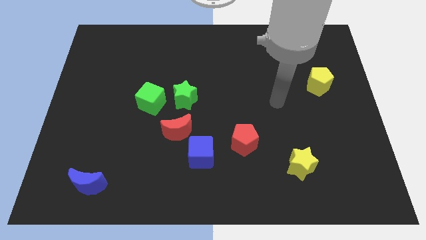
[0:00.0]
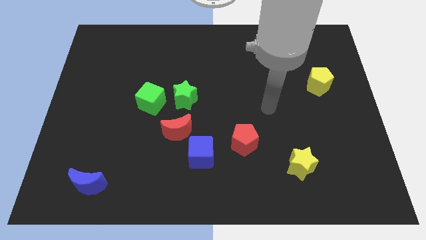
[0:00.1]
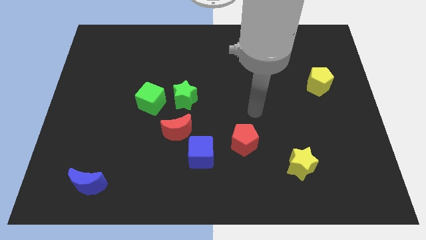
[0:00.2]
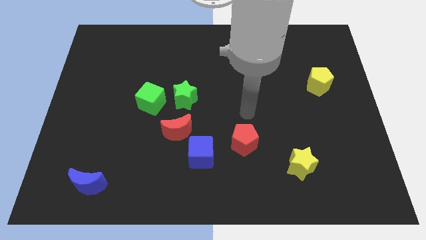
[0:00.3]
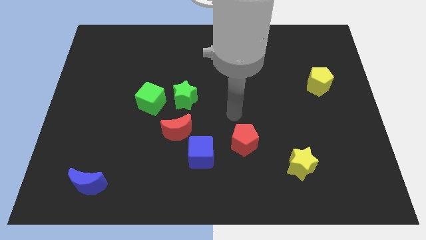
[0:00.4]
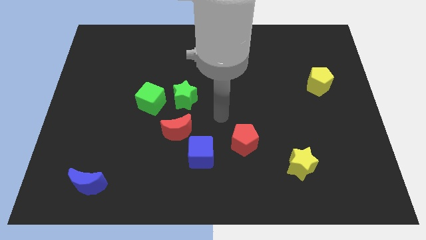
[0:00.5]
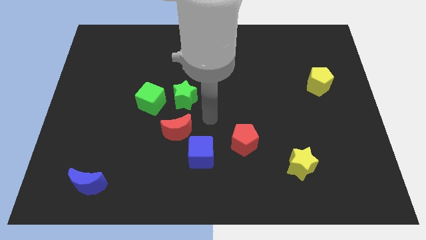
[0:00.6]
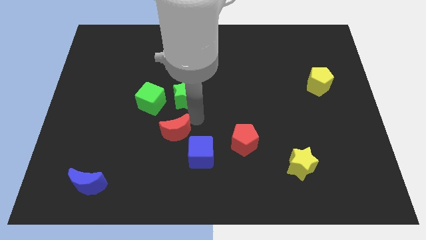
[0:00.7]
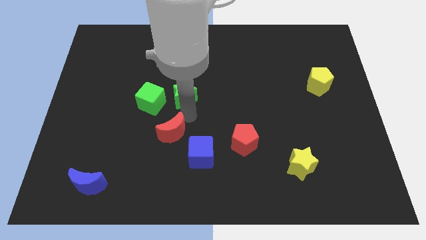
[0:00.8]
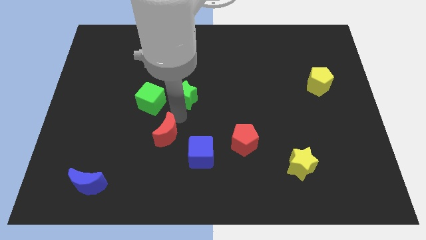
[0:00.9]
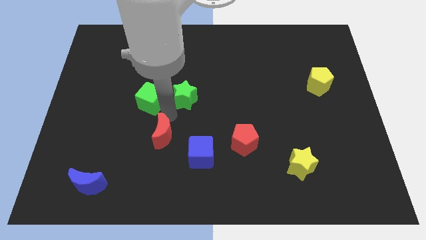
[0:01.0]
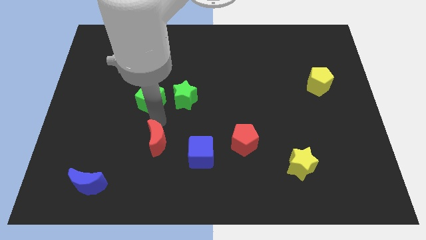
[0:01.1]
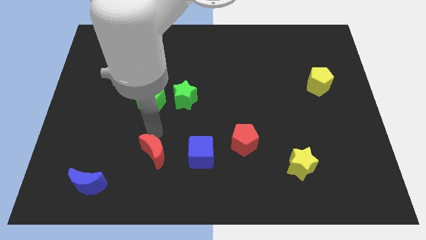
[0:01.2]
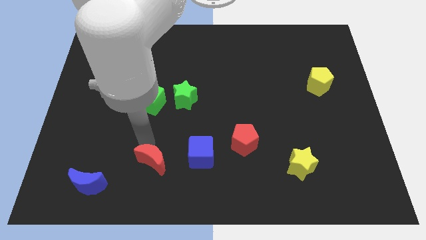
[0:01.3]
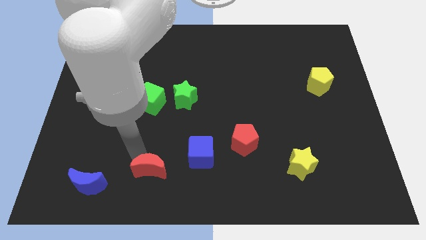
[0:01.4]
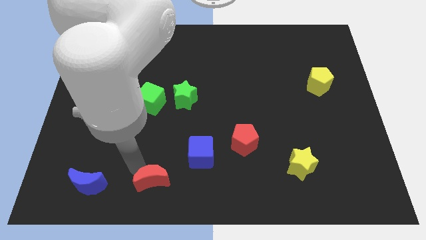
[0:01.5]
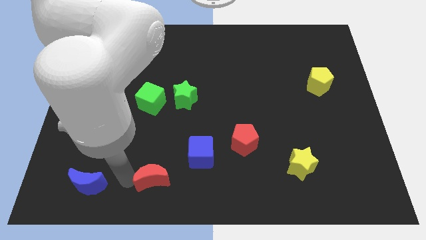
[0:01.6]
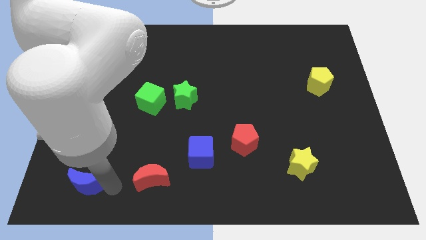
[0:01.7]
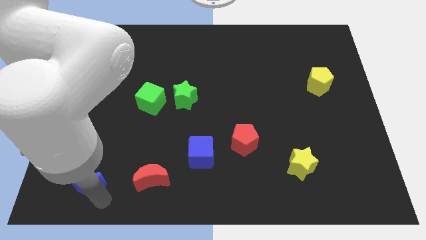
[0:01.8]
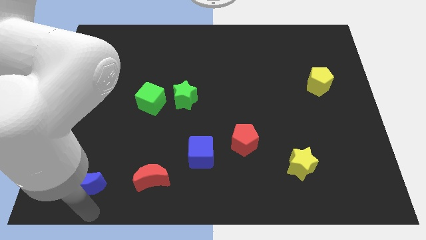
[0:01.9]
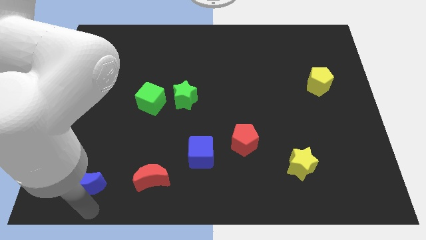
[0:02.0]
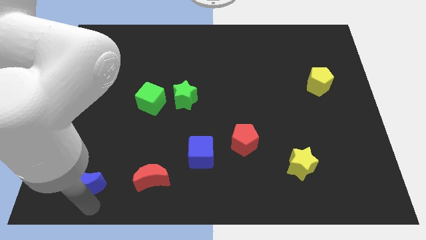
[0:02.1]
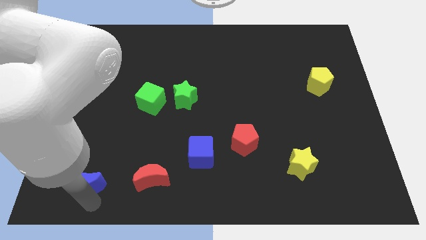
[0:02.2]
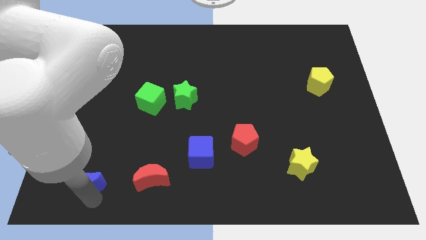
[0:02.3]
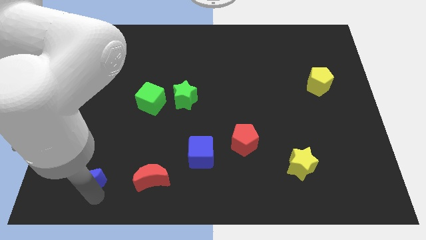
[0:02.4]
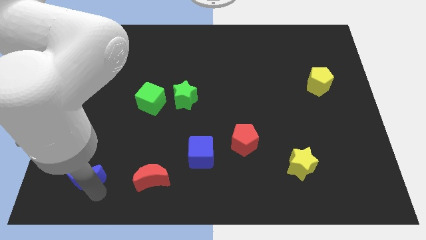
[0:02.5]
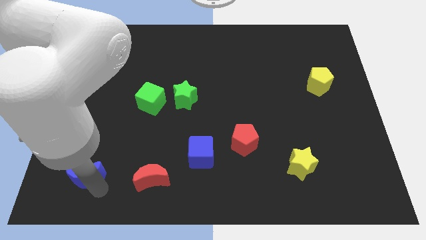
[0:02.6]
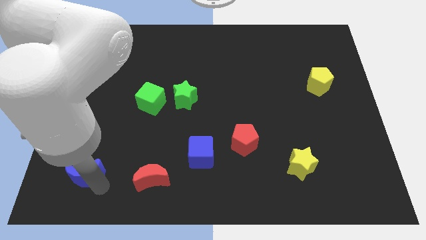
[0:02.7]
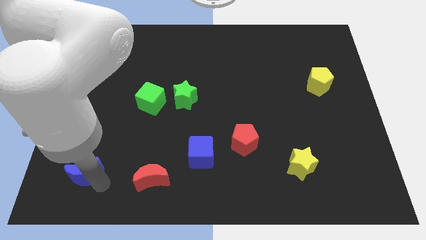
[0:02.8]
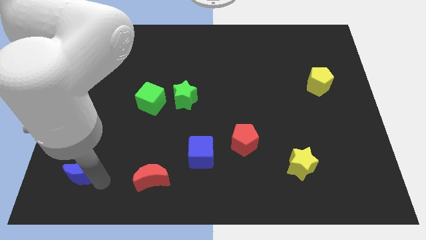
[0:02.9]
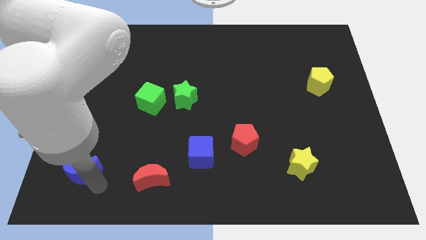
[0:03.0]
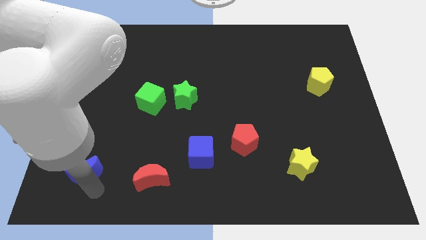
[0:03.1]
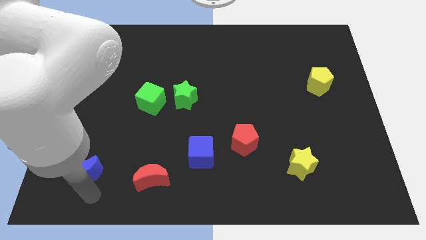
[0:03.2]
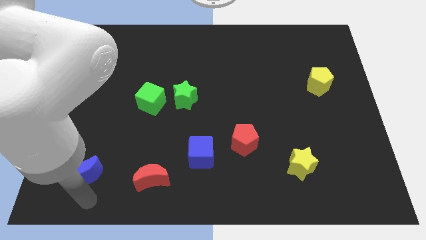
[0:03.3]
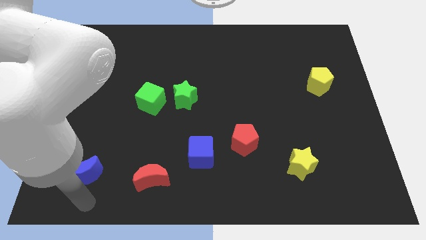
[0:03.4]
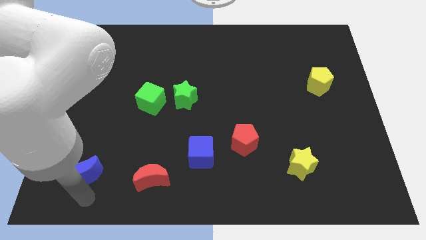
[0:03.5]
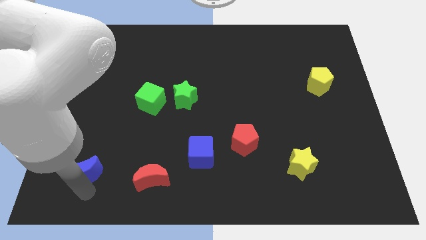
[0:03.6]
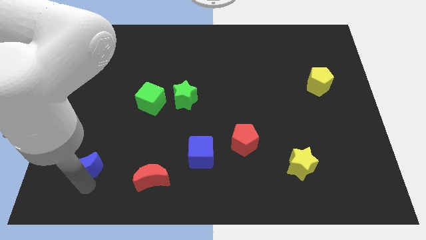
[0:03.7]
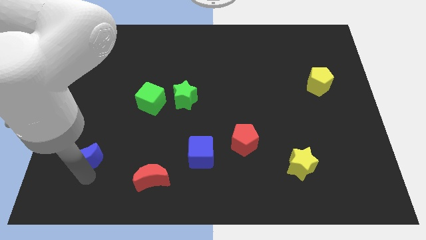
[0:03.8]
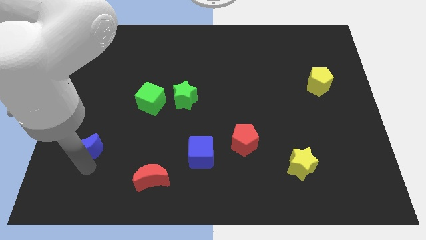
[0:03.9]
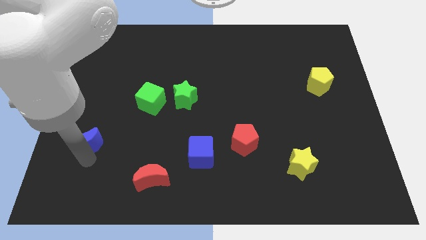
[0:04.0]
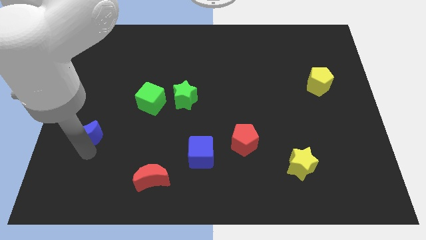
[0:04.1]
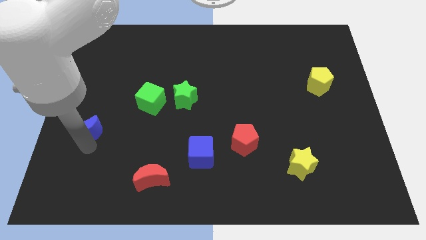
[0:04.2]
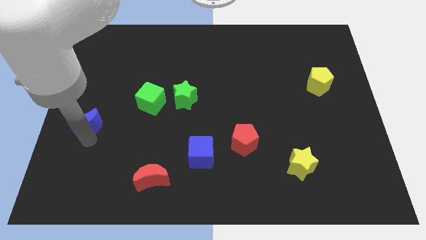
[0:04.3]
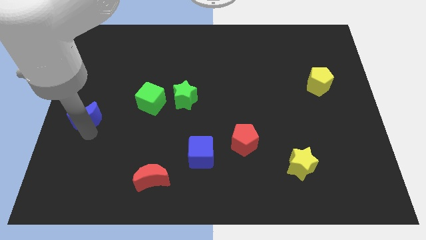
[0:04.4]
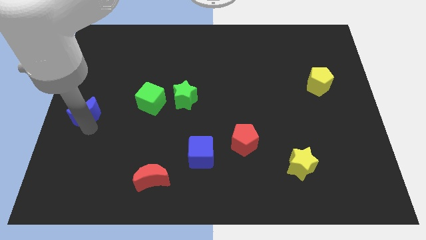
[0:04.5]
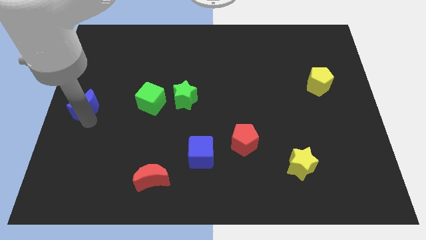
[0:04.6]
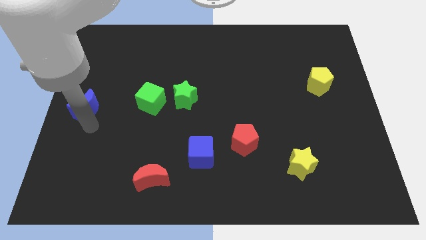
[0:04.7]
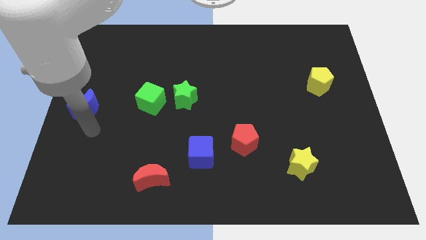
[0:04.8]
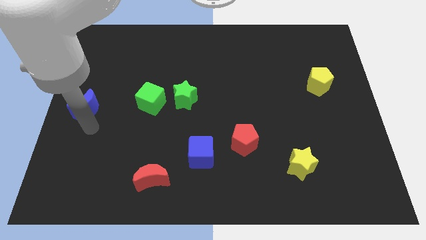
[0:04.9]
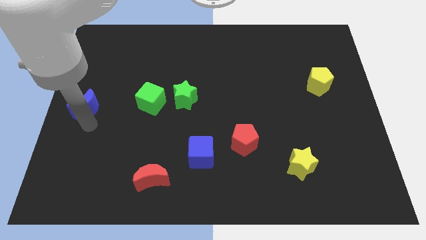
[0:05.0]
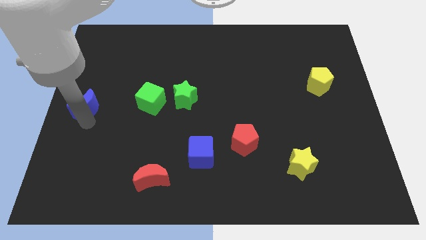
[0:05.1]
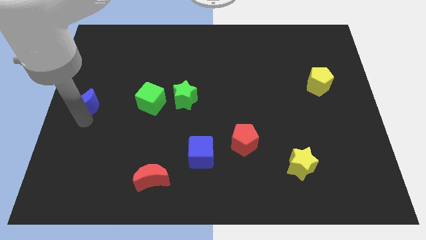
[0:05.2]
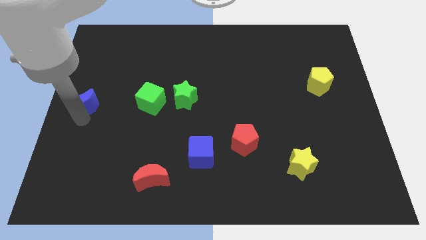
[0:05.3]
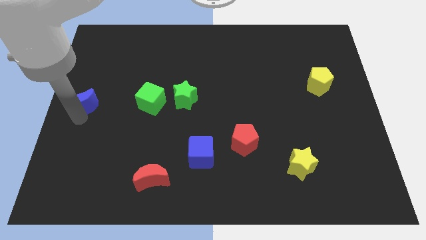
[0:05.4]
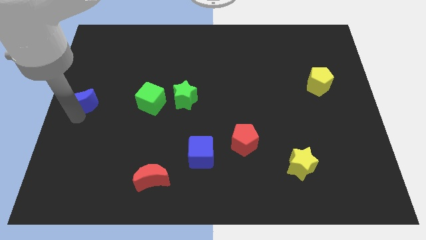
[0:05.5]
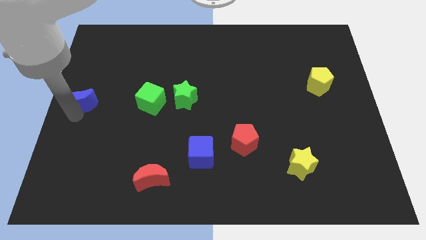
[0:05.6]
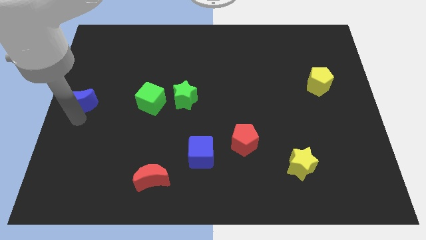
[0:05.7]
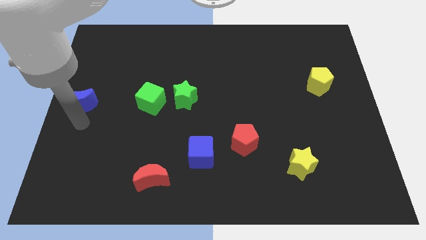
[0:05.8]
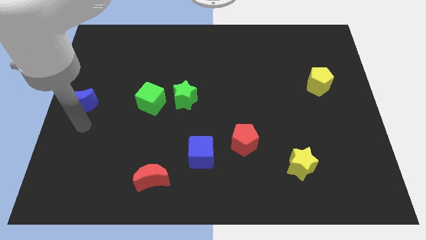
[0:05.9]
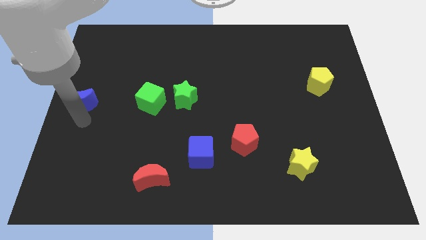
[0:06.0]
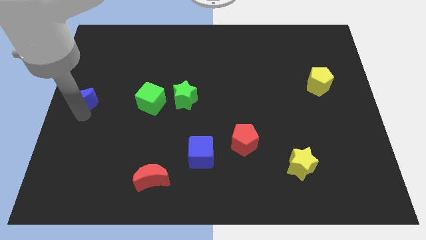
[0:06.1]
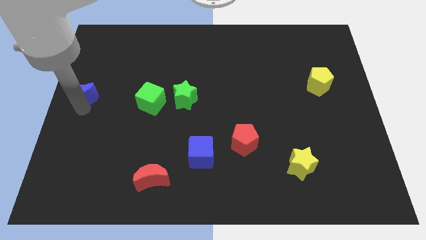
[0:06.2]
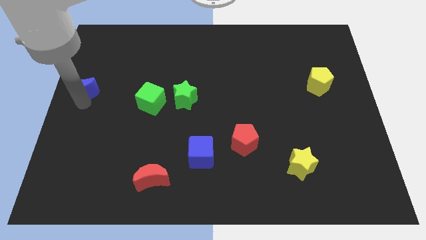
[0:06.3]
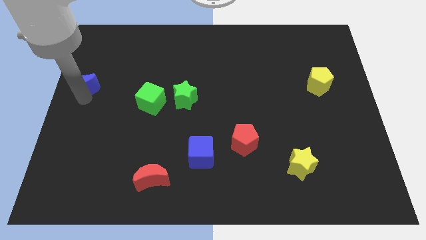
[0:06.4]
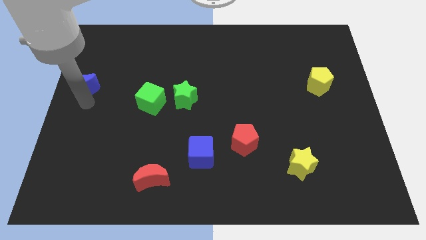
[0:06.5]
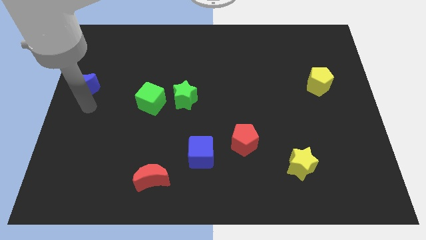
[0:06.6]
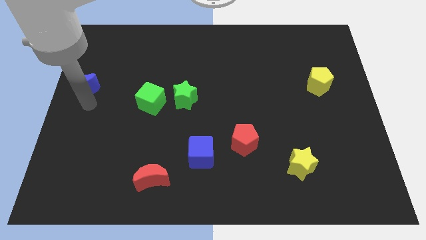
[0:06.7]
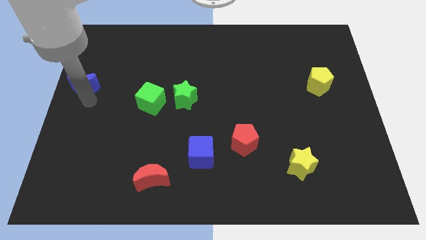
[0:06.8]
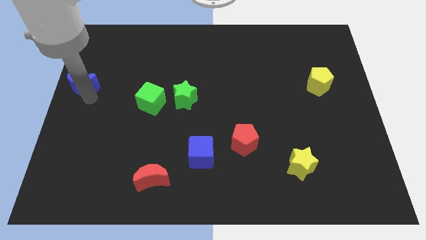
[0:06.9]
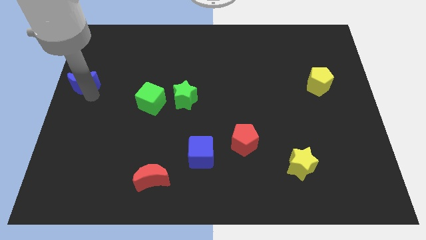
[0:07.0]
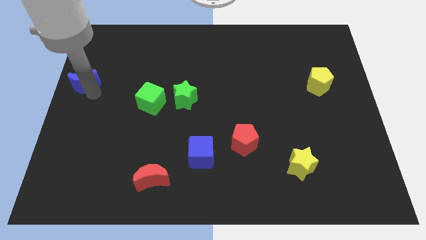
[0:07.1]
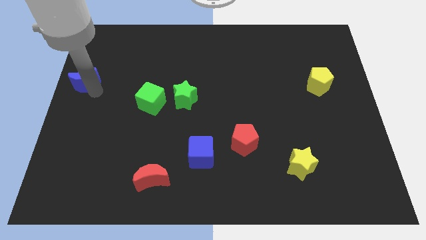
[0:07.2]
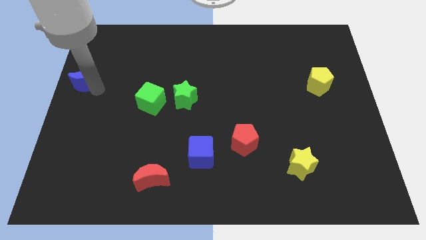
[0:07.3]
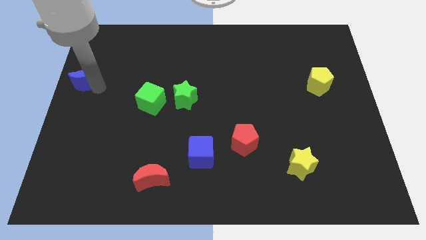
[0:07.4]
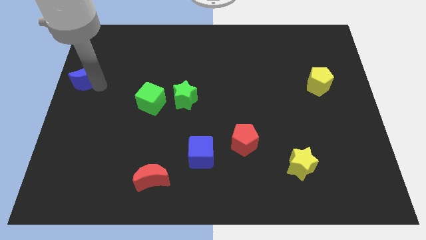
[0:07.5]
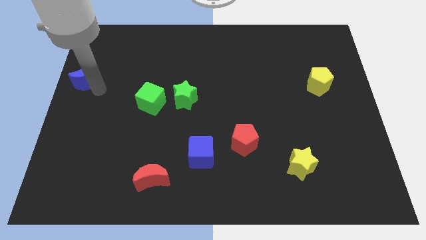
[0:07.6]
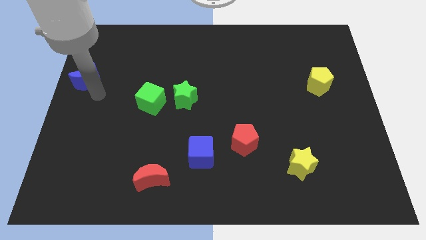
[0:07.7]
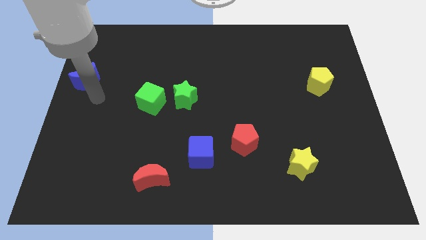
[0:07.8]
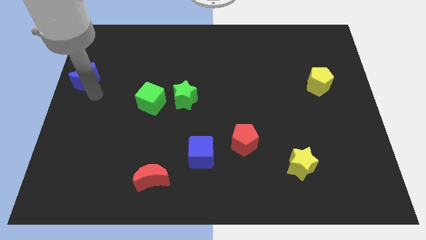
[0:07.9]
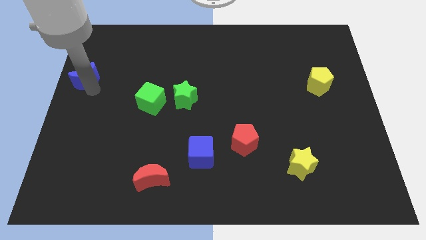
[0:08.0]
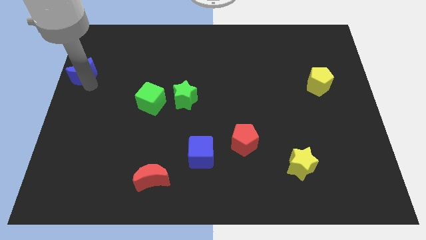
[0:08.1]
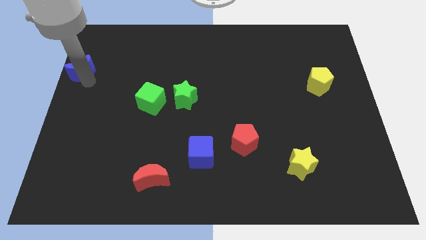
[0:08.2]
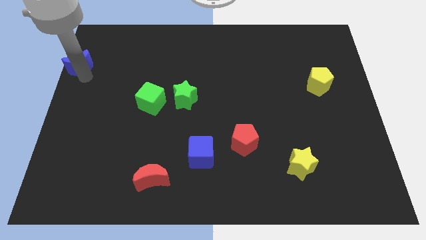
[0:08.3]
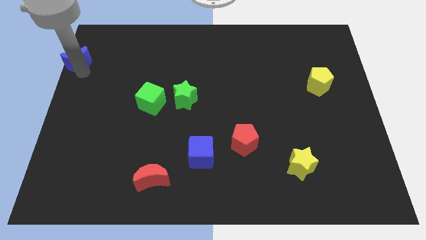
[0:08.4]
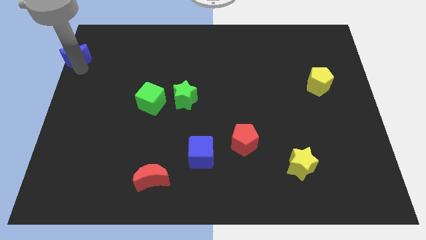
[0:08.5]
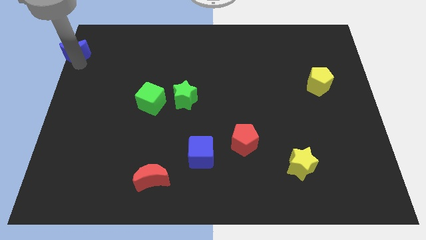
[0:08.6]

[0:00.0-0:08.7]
move the blue moon to the upper left corner
